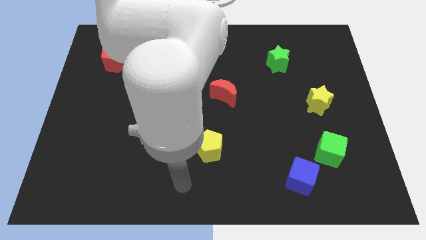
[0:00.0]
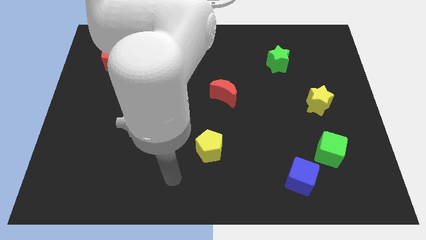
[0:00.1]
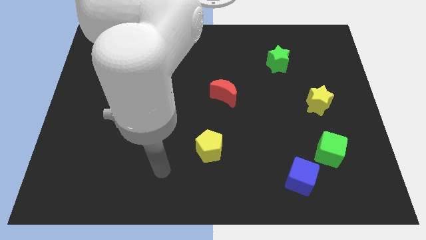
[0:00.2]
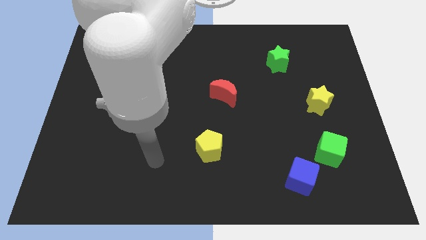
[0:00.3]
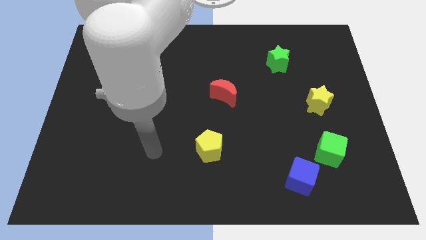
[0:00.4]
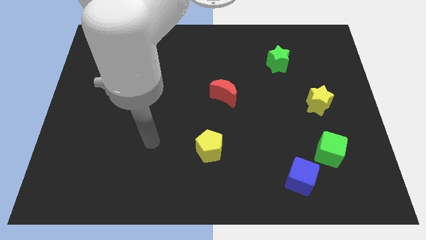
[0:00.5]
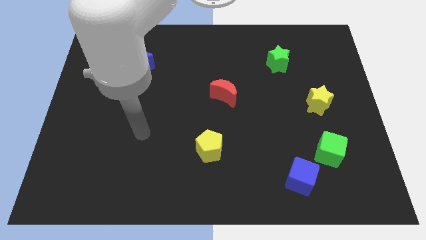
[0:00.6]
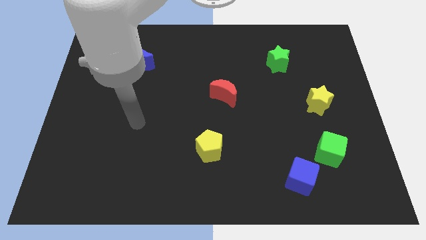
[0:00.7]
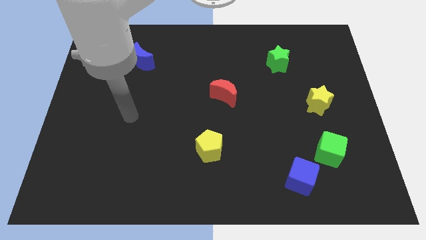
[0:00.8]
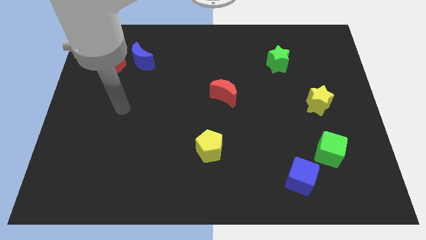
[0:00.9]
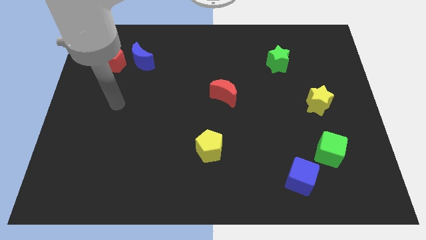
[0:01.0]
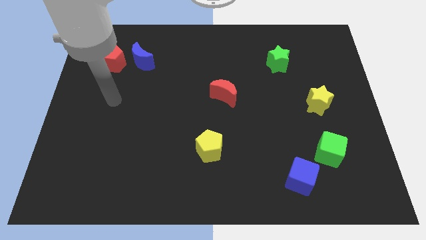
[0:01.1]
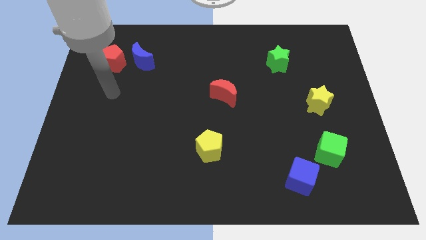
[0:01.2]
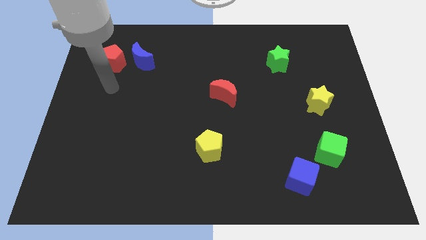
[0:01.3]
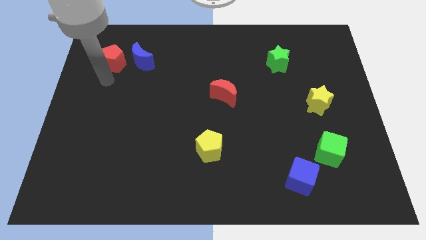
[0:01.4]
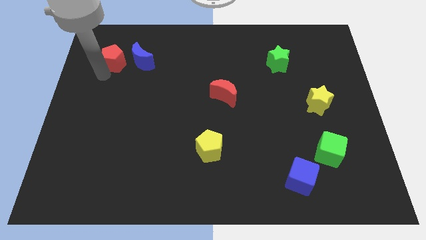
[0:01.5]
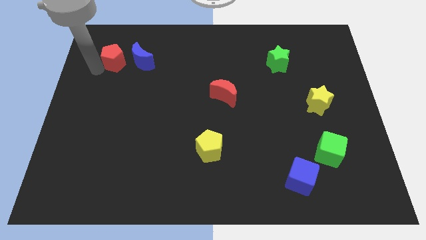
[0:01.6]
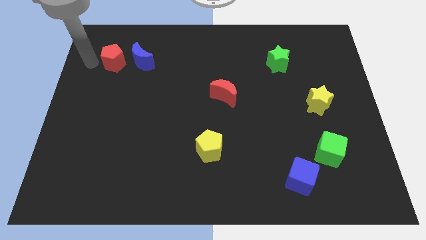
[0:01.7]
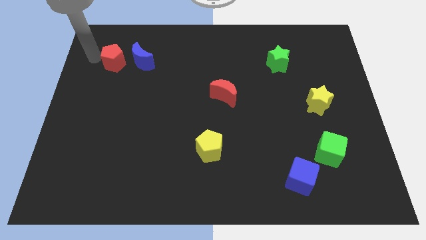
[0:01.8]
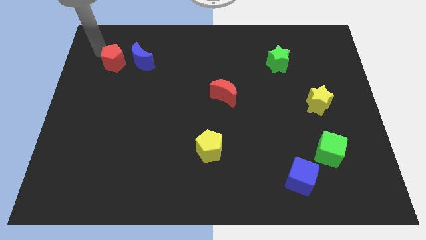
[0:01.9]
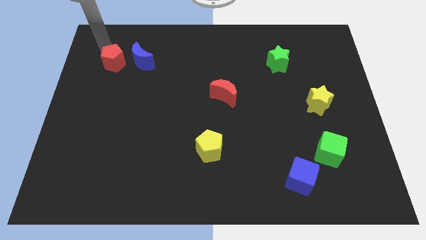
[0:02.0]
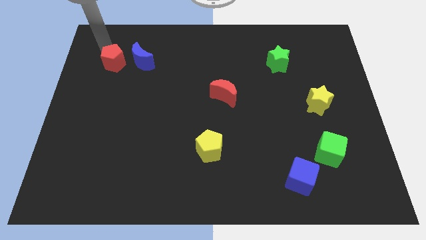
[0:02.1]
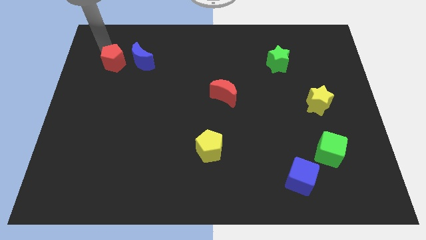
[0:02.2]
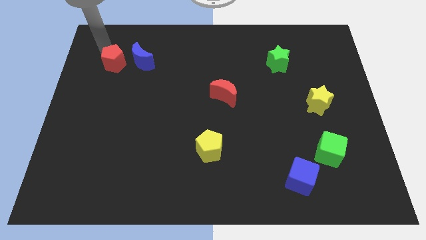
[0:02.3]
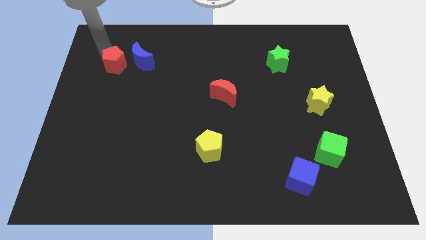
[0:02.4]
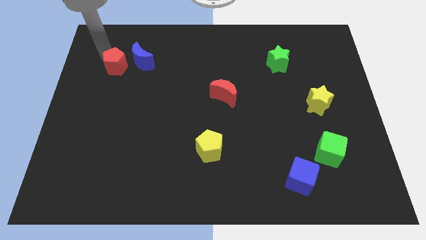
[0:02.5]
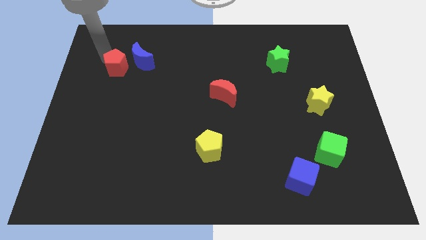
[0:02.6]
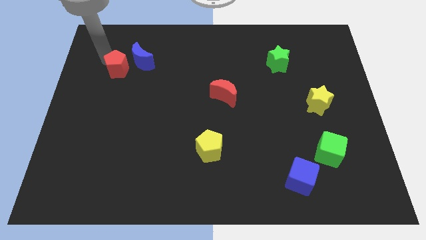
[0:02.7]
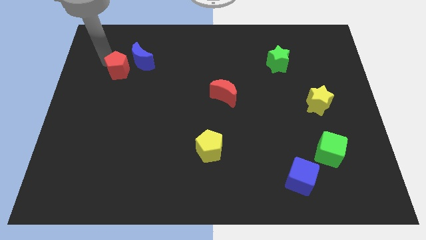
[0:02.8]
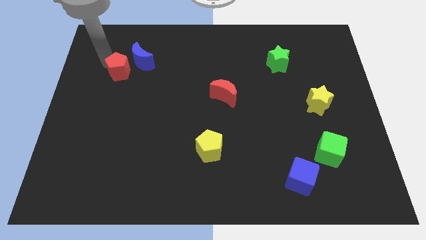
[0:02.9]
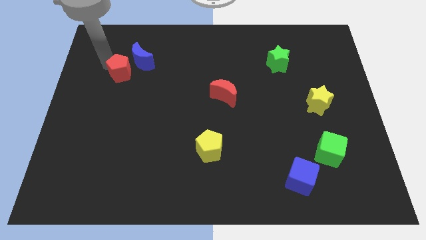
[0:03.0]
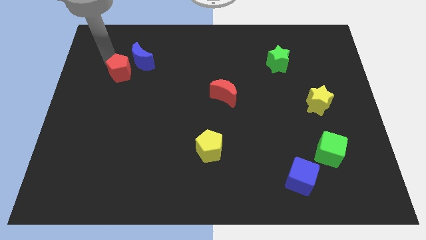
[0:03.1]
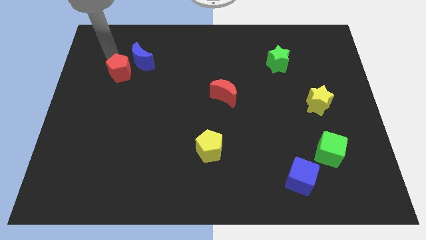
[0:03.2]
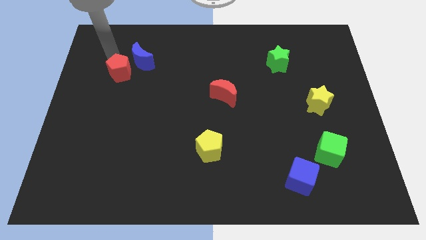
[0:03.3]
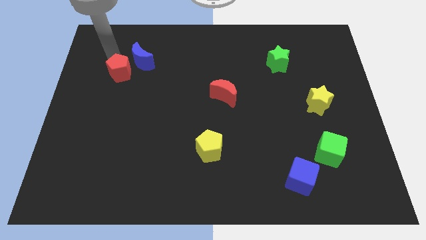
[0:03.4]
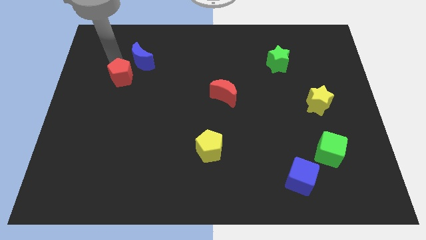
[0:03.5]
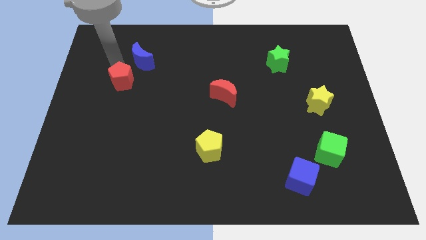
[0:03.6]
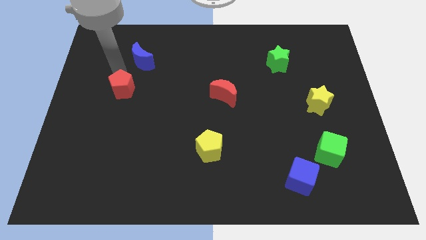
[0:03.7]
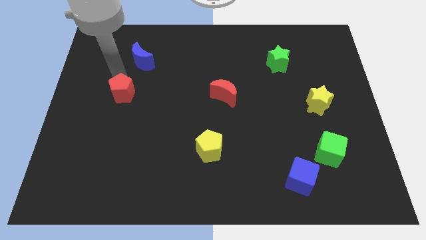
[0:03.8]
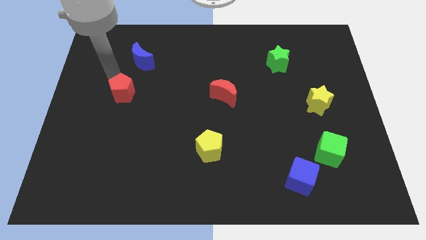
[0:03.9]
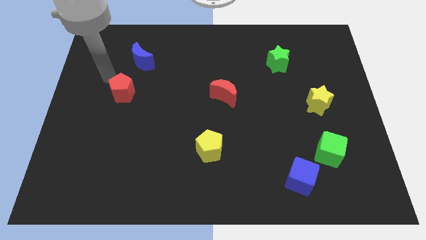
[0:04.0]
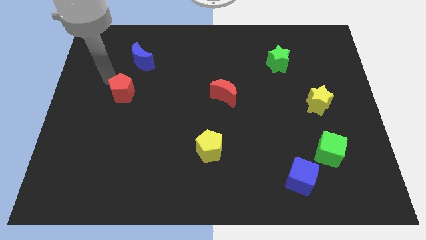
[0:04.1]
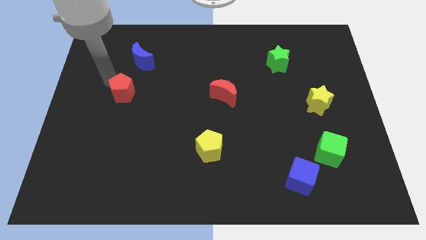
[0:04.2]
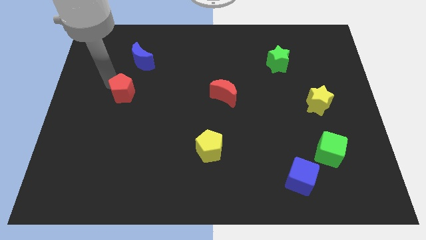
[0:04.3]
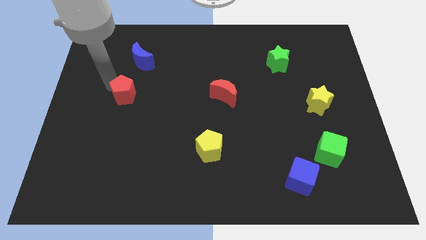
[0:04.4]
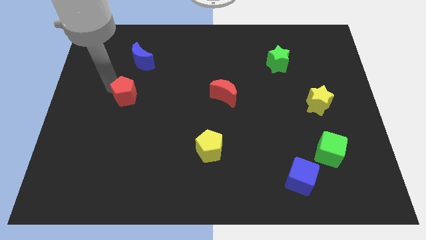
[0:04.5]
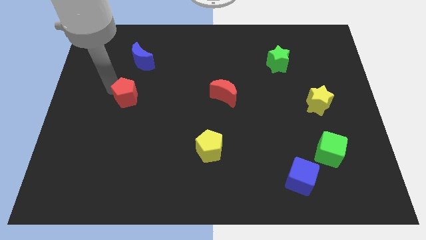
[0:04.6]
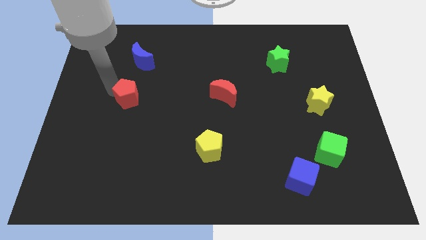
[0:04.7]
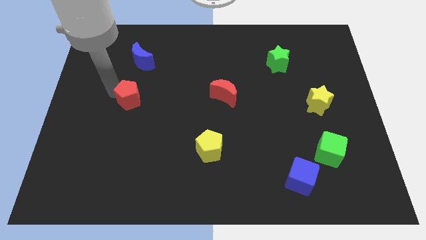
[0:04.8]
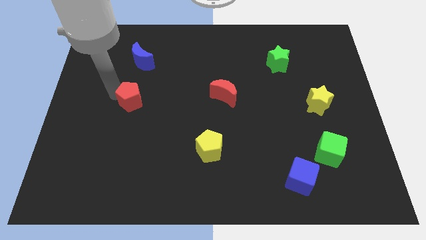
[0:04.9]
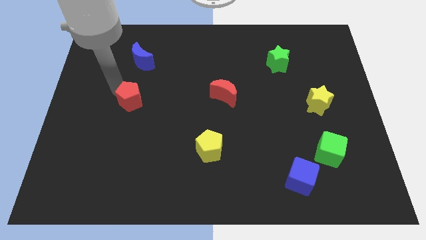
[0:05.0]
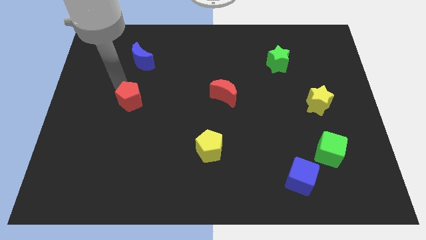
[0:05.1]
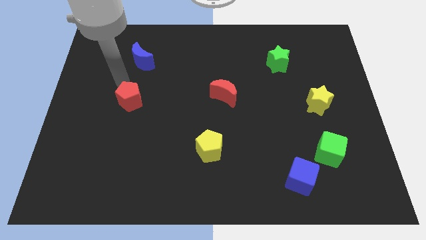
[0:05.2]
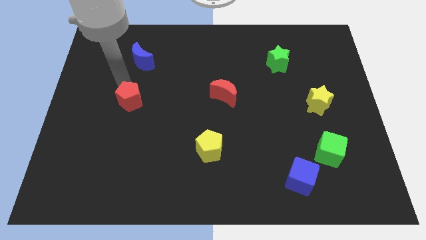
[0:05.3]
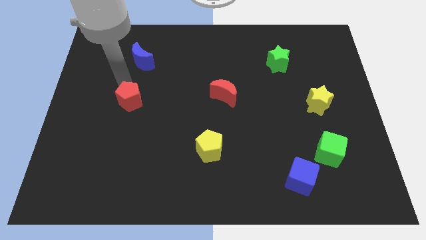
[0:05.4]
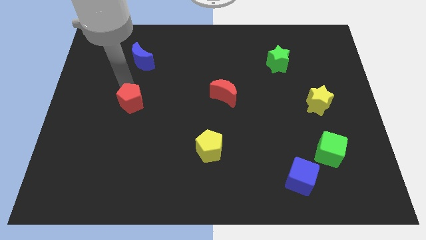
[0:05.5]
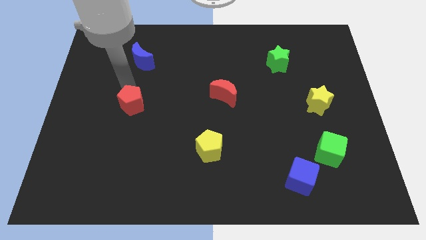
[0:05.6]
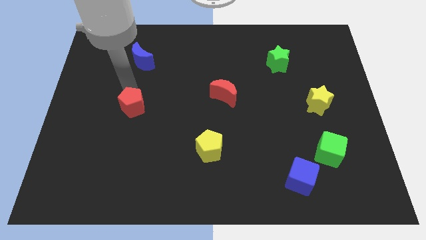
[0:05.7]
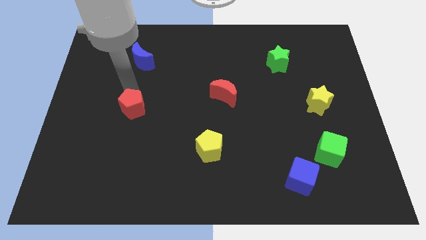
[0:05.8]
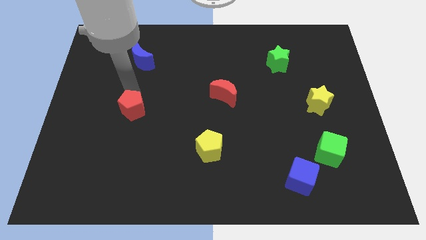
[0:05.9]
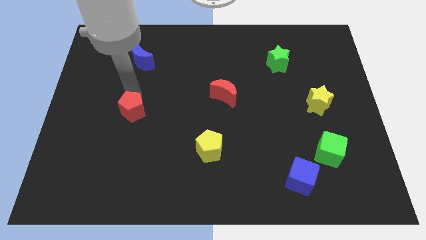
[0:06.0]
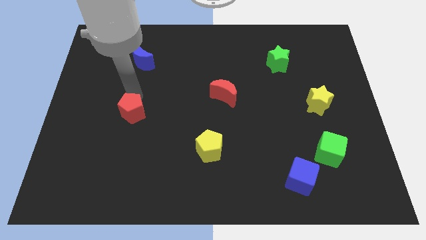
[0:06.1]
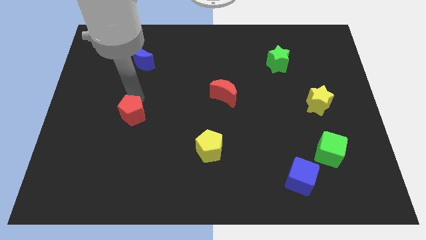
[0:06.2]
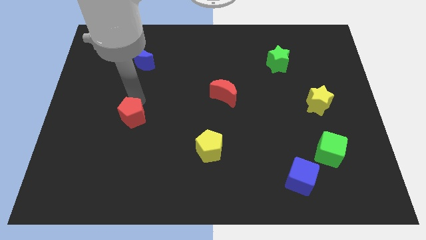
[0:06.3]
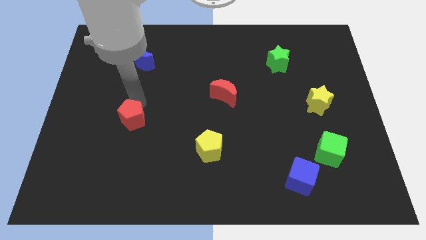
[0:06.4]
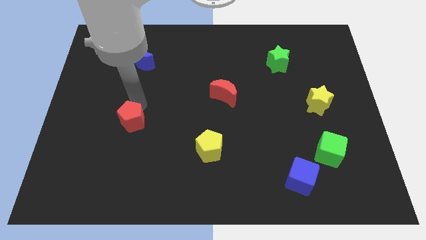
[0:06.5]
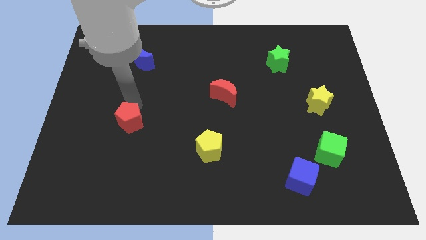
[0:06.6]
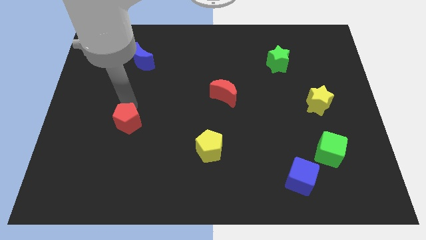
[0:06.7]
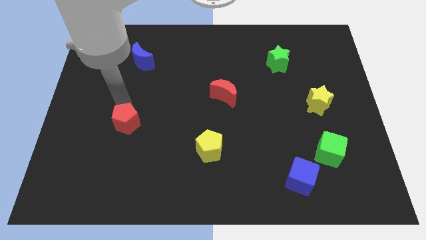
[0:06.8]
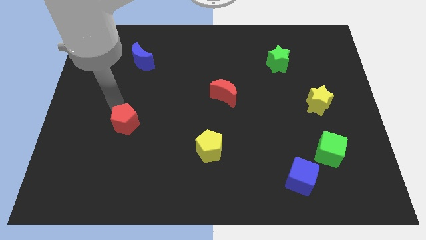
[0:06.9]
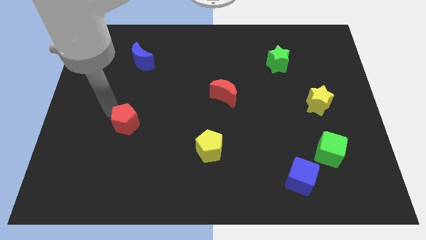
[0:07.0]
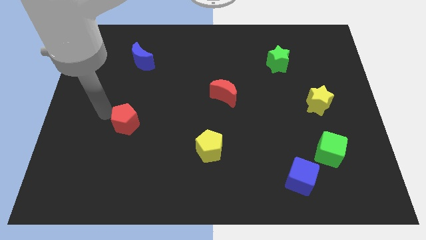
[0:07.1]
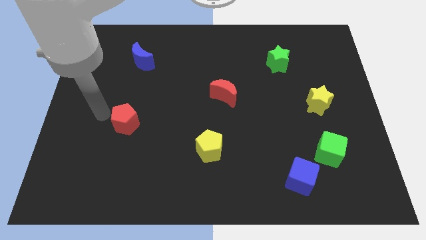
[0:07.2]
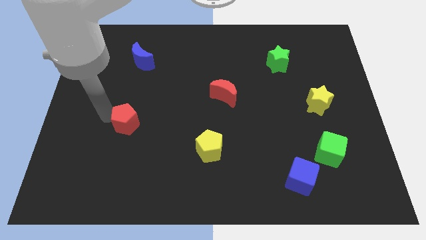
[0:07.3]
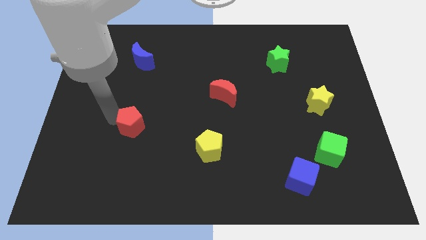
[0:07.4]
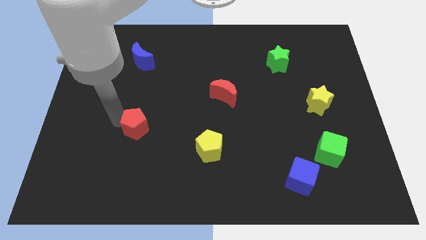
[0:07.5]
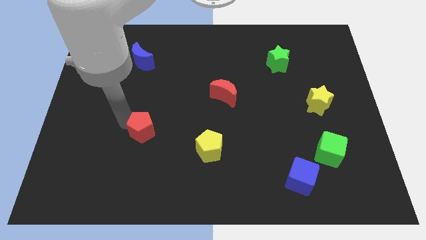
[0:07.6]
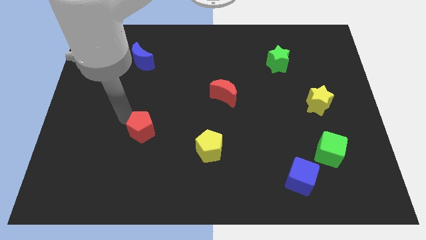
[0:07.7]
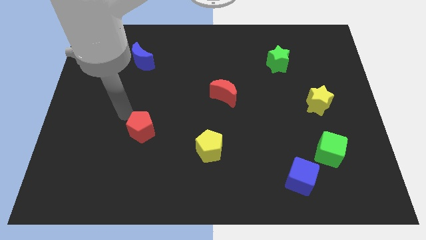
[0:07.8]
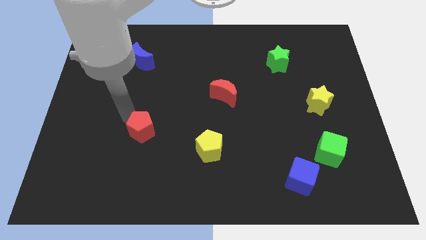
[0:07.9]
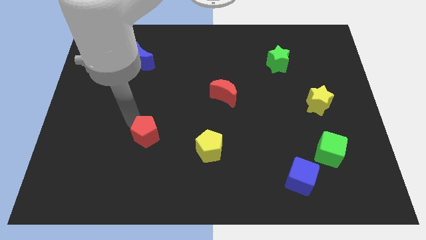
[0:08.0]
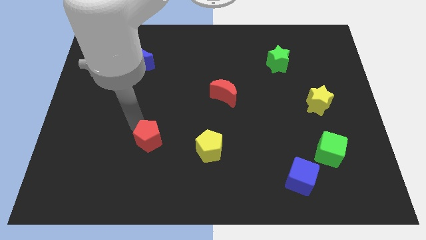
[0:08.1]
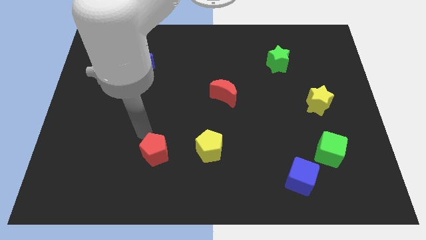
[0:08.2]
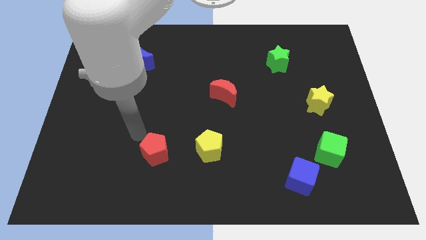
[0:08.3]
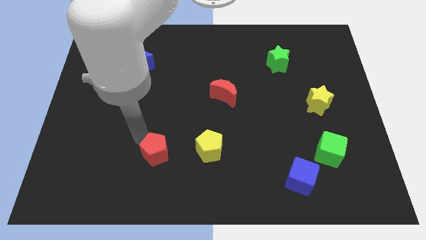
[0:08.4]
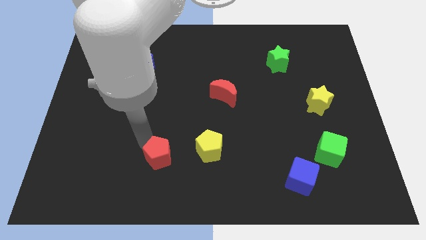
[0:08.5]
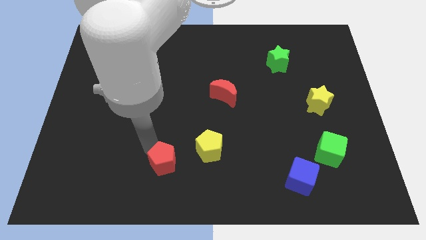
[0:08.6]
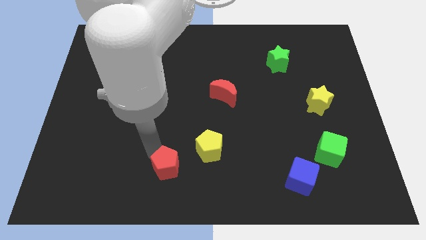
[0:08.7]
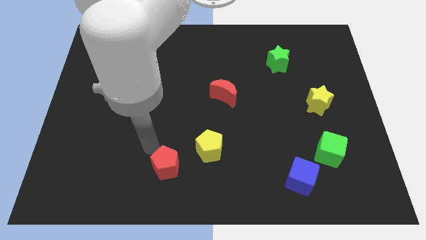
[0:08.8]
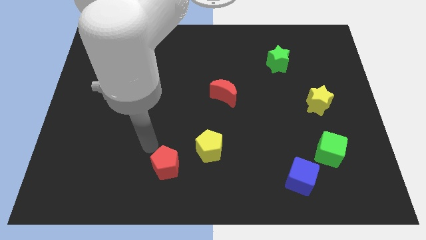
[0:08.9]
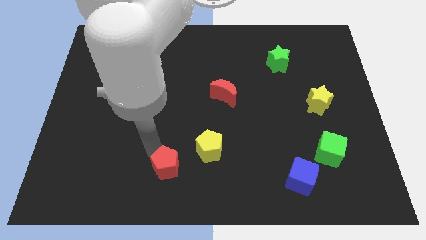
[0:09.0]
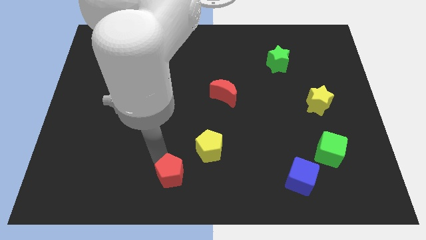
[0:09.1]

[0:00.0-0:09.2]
put the red pentagon to the bottom
